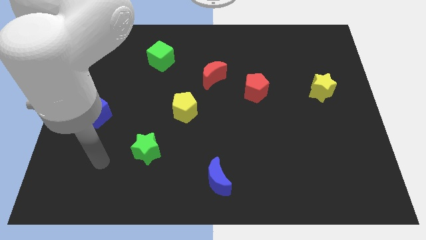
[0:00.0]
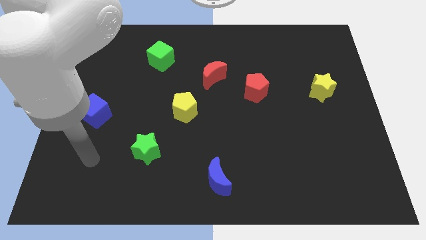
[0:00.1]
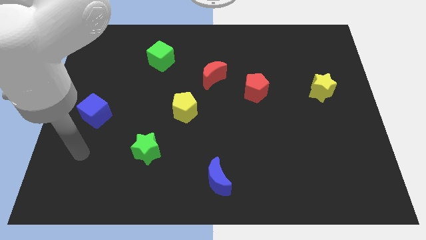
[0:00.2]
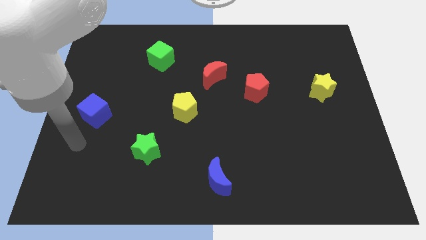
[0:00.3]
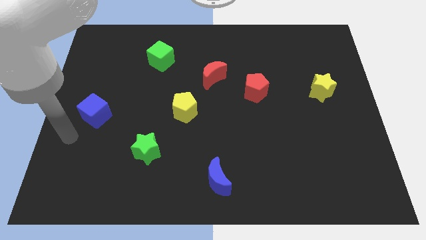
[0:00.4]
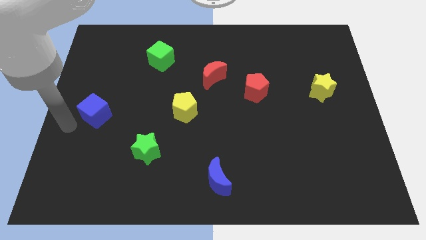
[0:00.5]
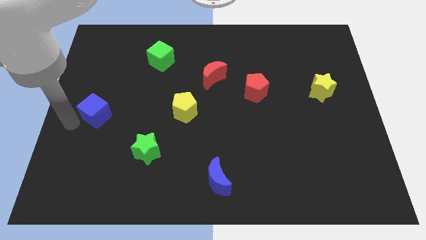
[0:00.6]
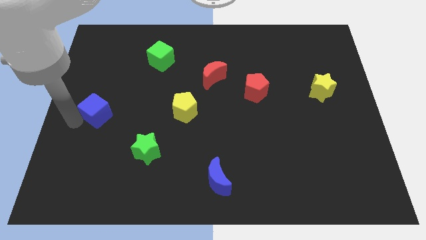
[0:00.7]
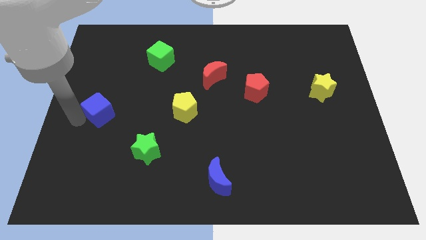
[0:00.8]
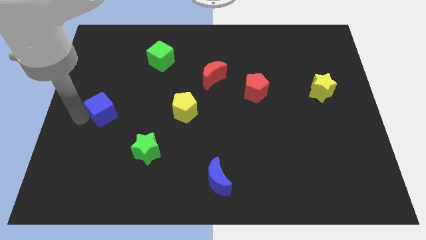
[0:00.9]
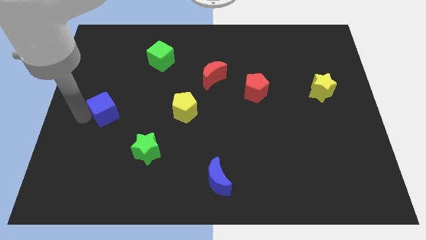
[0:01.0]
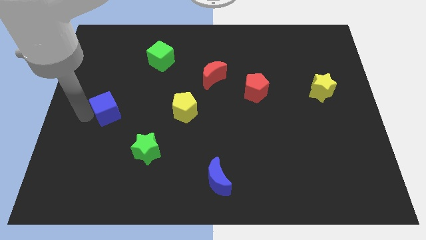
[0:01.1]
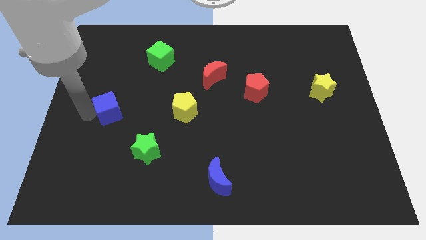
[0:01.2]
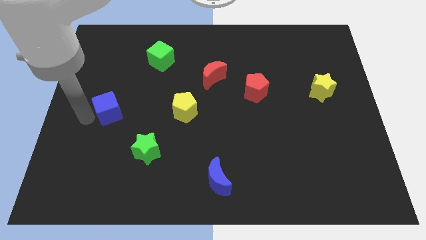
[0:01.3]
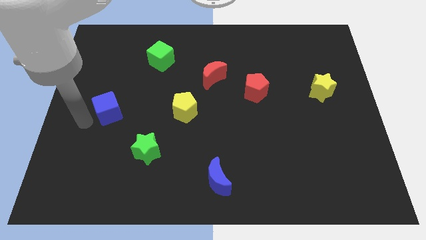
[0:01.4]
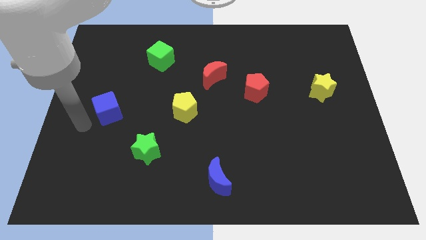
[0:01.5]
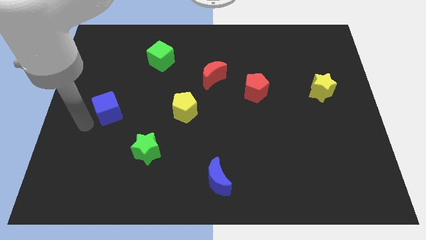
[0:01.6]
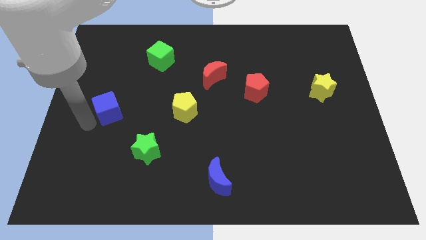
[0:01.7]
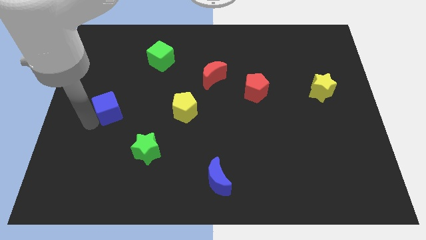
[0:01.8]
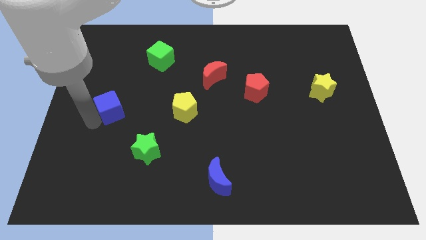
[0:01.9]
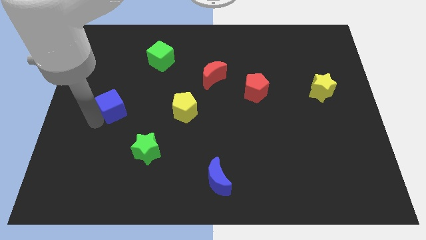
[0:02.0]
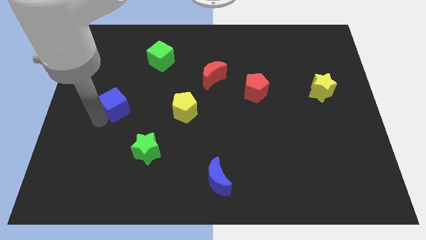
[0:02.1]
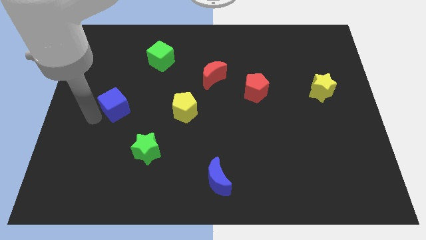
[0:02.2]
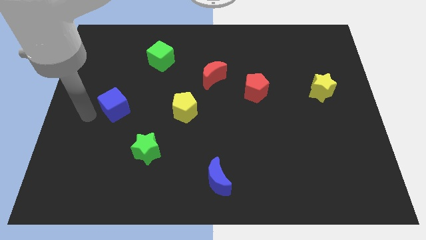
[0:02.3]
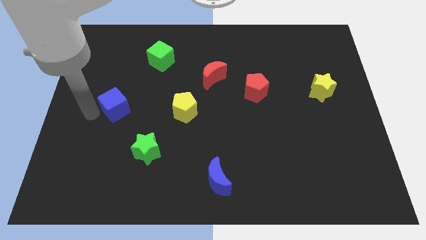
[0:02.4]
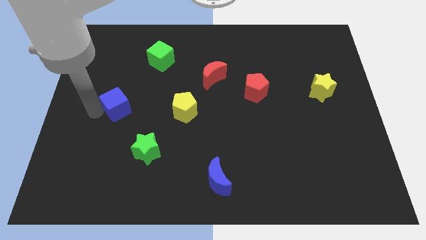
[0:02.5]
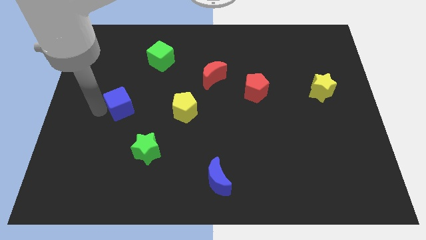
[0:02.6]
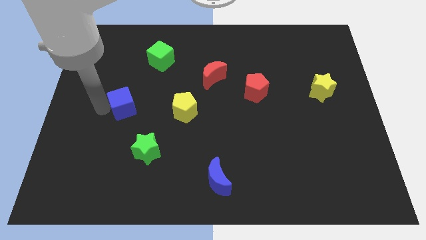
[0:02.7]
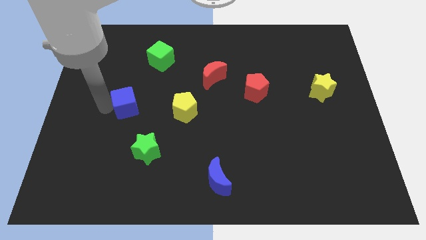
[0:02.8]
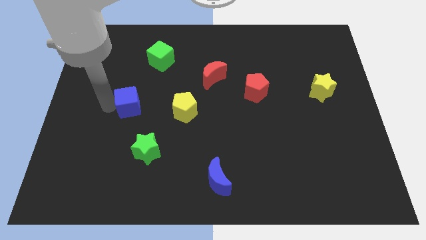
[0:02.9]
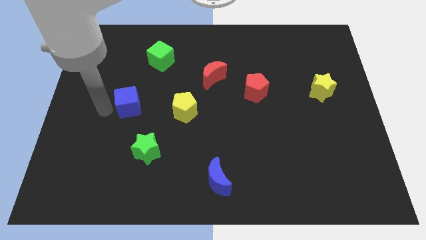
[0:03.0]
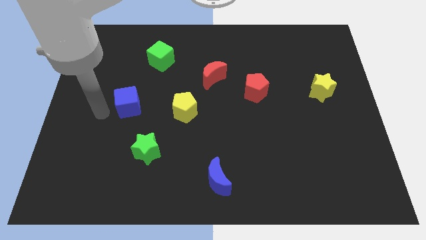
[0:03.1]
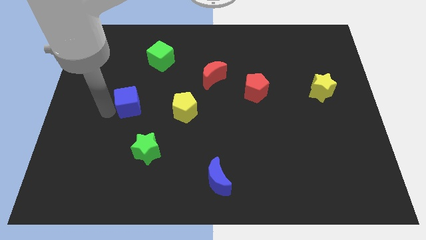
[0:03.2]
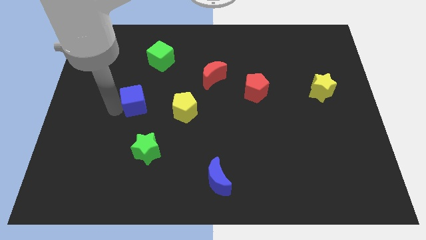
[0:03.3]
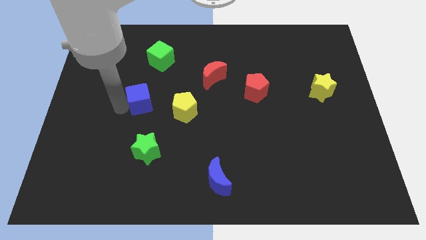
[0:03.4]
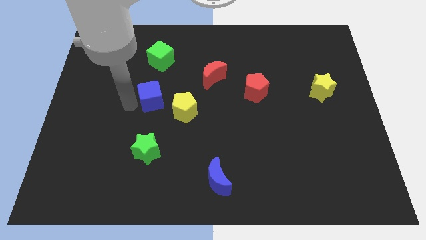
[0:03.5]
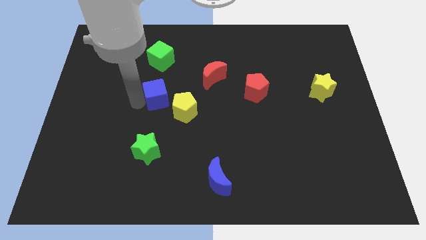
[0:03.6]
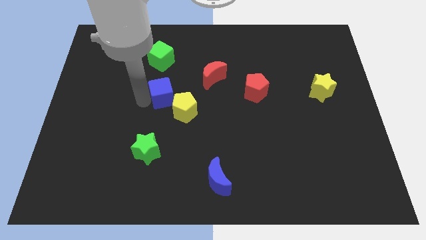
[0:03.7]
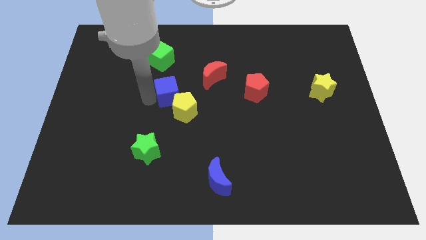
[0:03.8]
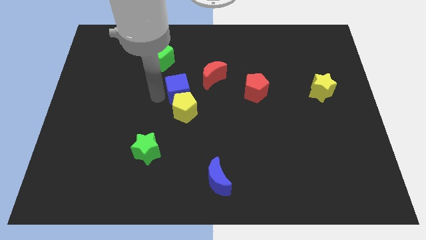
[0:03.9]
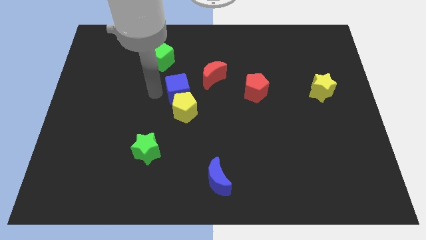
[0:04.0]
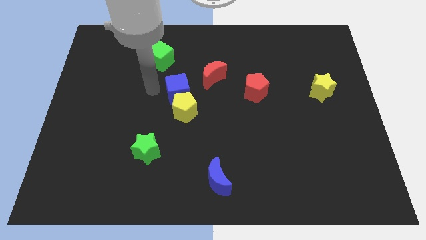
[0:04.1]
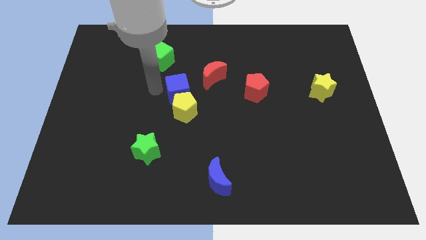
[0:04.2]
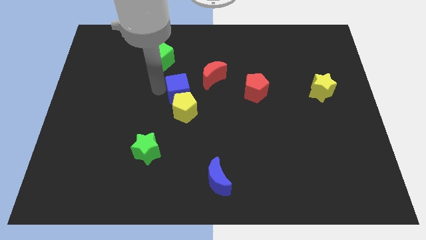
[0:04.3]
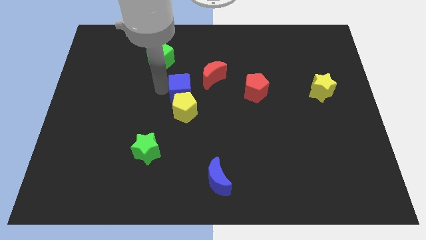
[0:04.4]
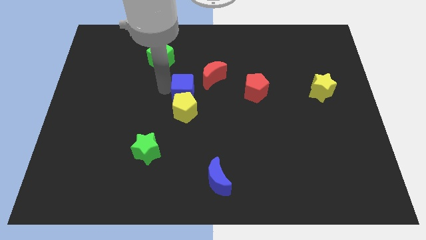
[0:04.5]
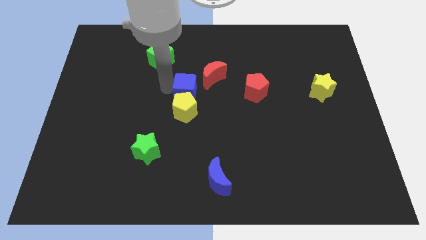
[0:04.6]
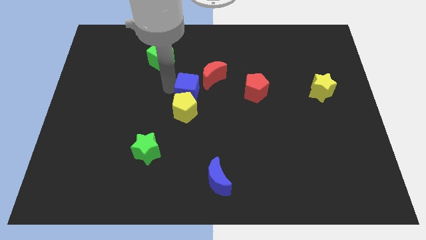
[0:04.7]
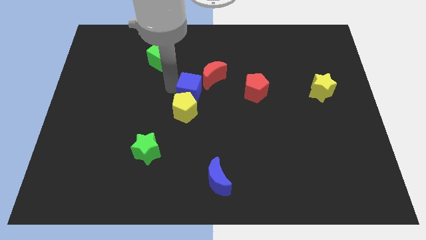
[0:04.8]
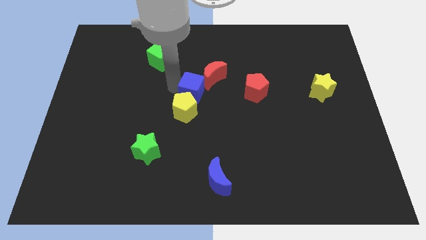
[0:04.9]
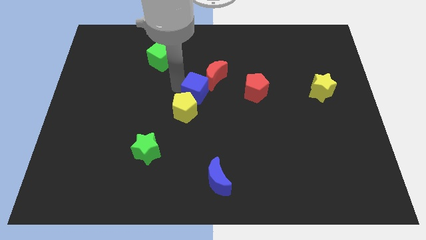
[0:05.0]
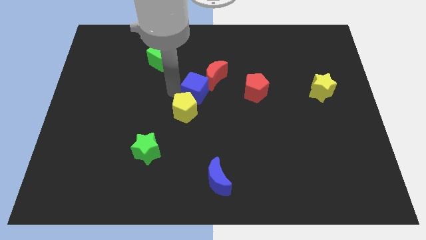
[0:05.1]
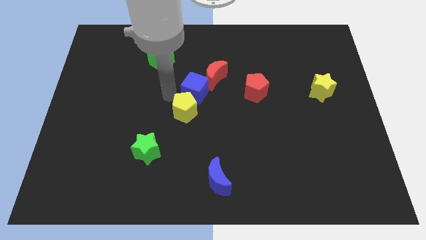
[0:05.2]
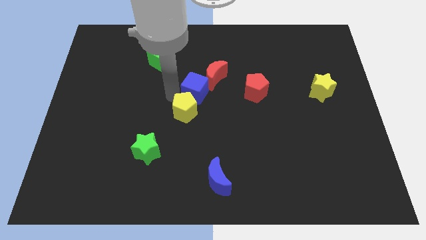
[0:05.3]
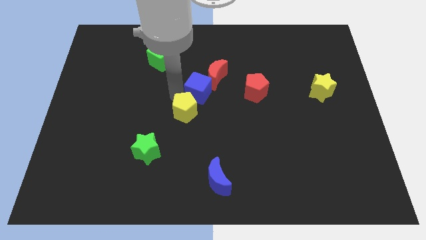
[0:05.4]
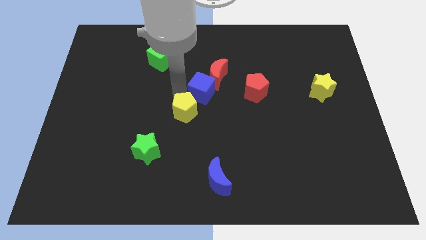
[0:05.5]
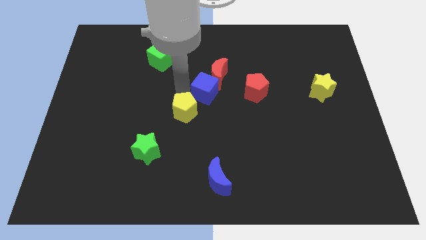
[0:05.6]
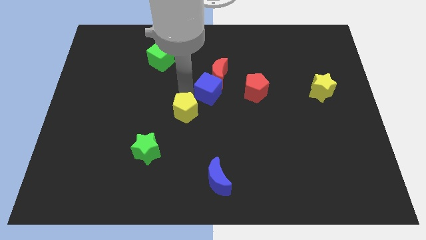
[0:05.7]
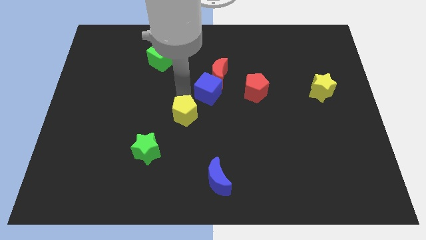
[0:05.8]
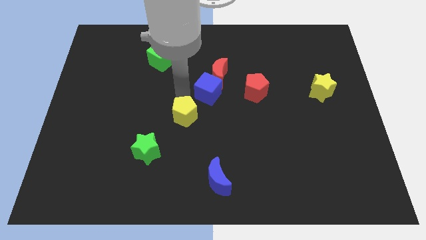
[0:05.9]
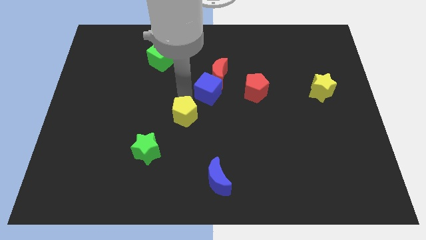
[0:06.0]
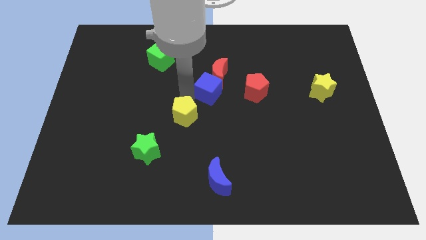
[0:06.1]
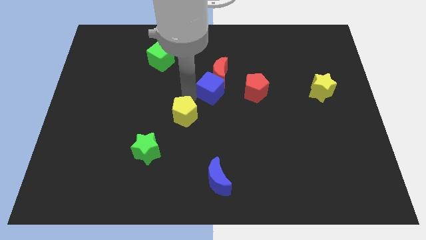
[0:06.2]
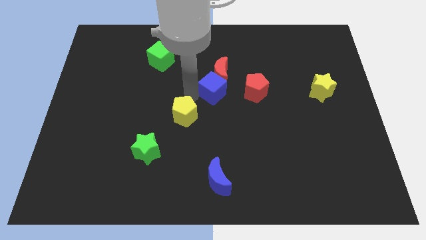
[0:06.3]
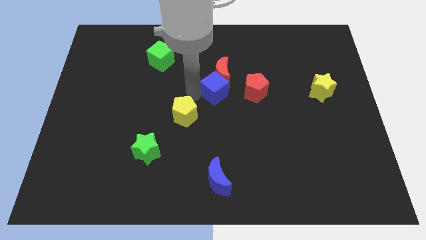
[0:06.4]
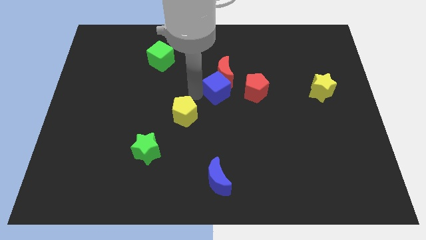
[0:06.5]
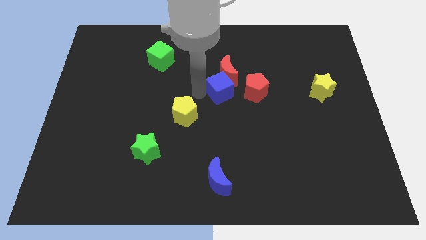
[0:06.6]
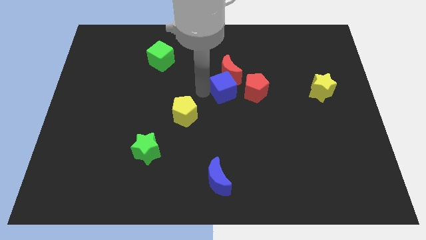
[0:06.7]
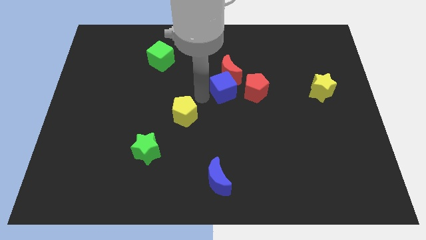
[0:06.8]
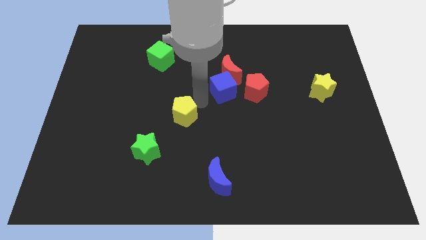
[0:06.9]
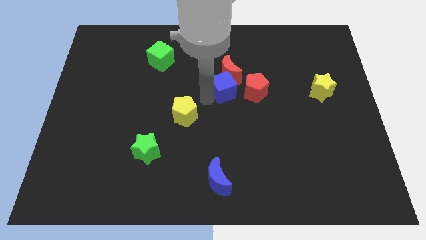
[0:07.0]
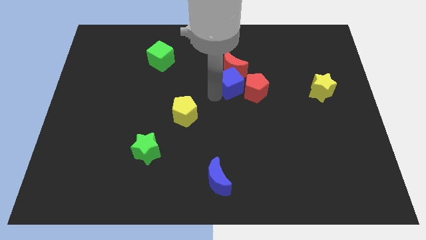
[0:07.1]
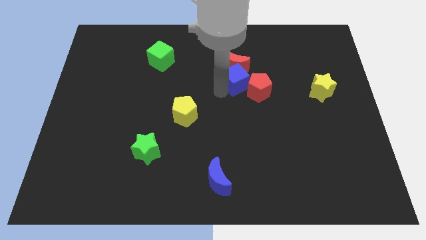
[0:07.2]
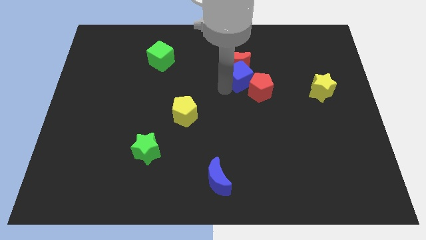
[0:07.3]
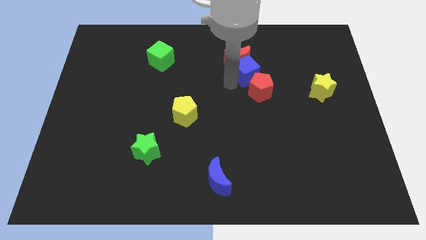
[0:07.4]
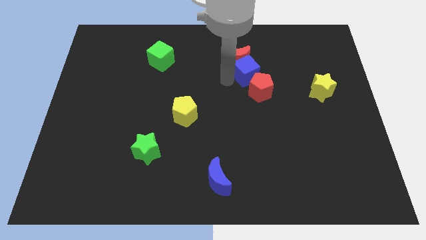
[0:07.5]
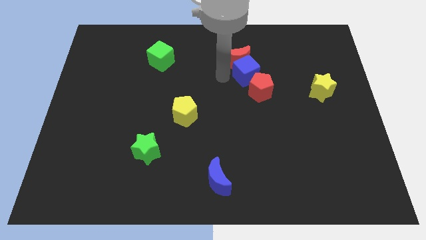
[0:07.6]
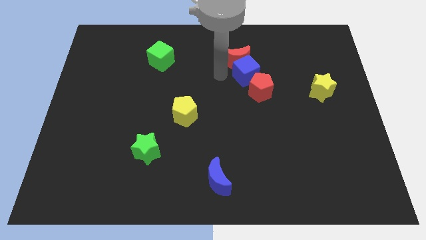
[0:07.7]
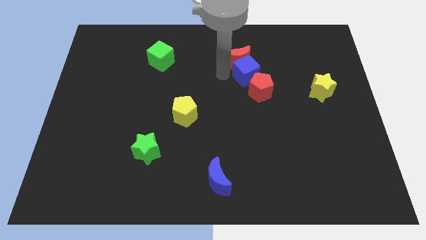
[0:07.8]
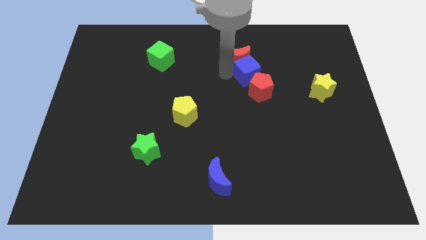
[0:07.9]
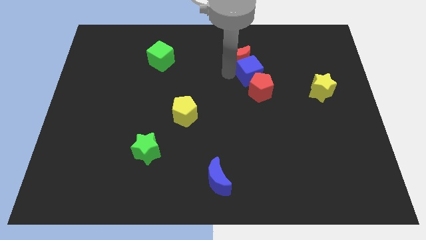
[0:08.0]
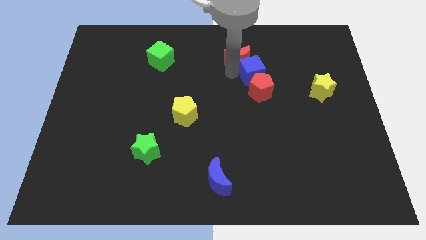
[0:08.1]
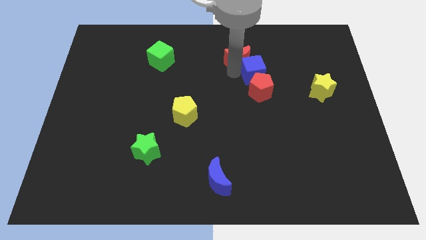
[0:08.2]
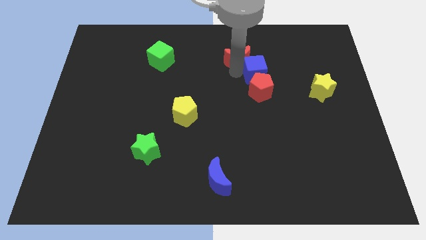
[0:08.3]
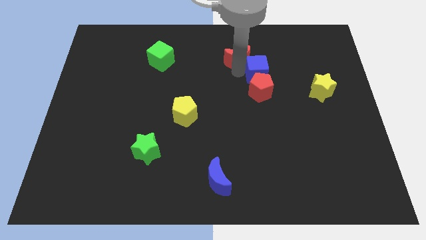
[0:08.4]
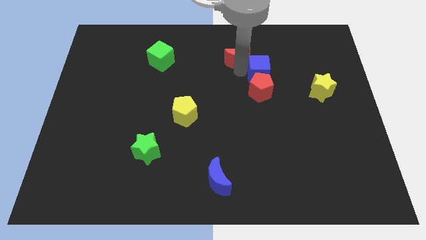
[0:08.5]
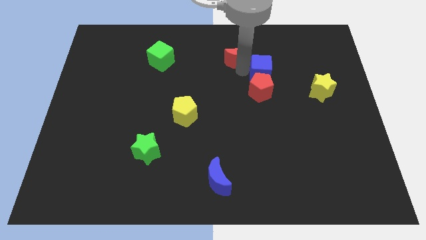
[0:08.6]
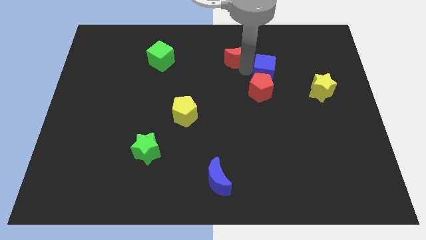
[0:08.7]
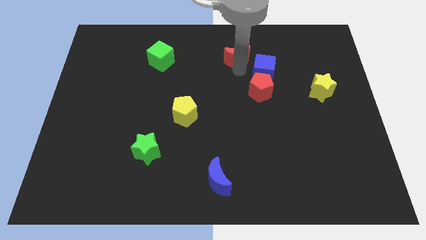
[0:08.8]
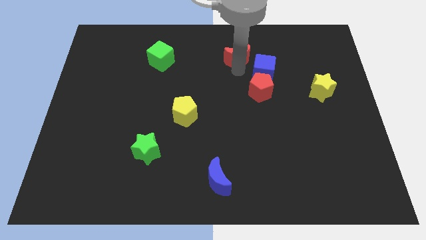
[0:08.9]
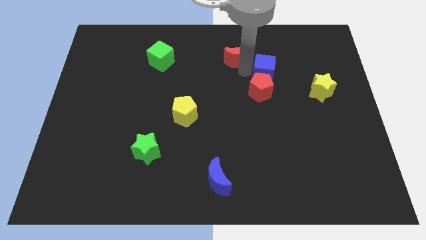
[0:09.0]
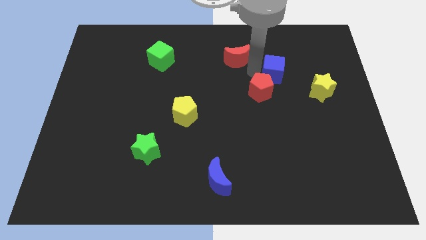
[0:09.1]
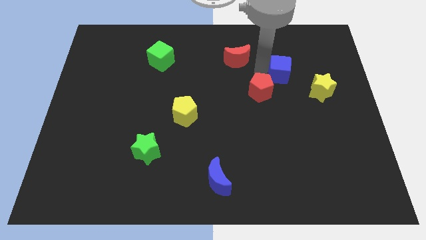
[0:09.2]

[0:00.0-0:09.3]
put the blue cube to the top left of the yellow star
